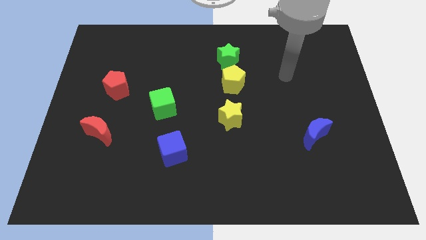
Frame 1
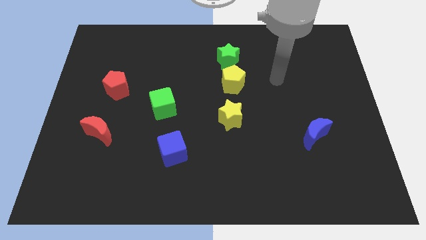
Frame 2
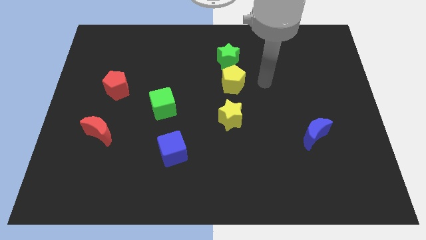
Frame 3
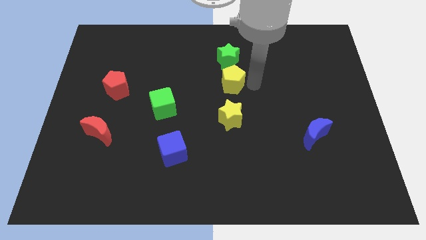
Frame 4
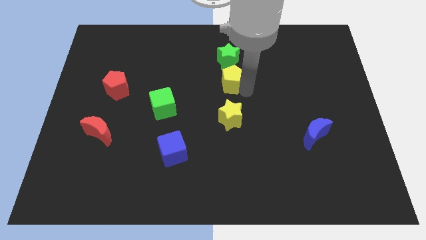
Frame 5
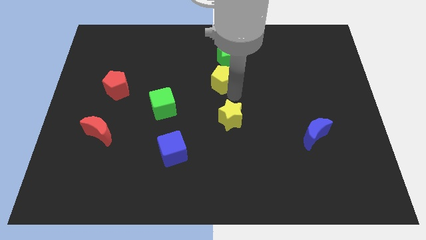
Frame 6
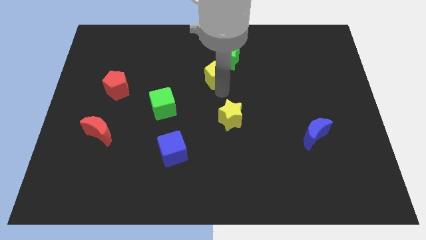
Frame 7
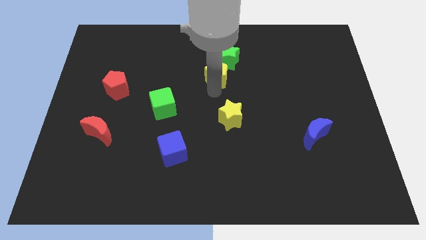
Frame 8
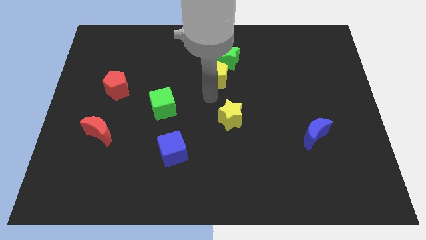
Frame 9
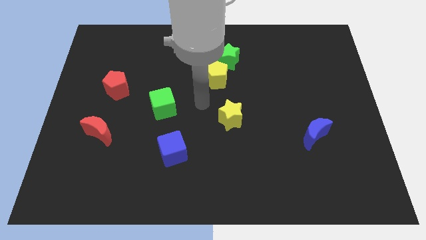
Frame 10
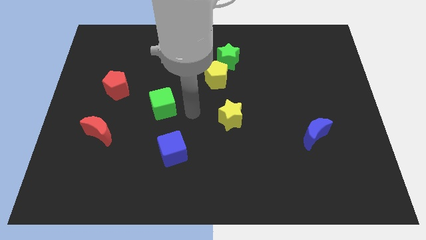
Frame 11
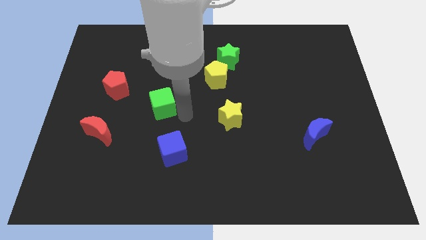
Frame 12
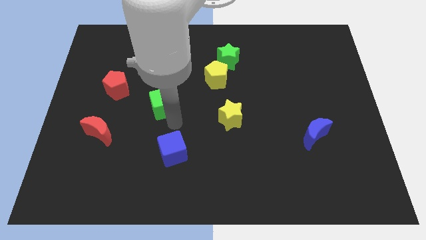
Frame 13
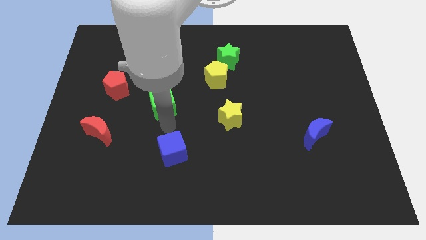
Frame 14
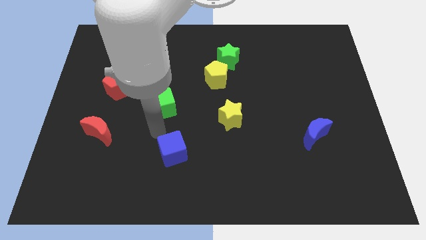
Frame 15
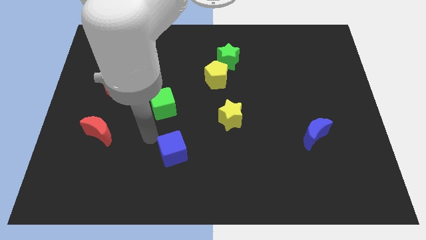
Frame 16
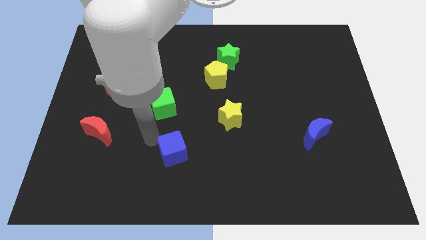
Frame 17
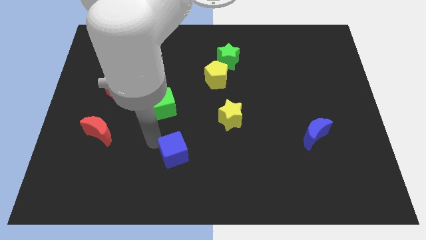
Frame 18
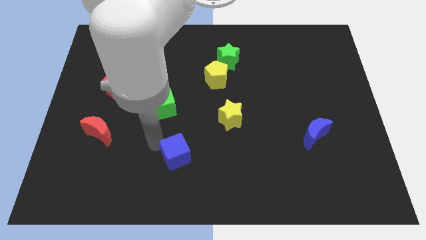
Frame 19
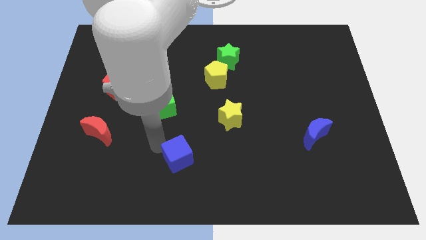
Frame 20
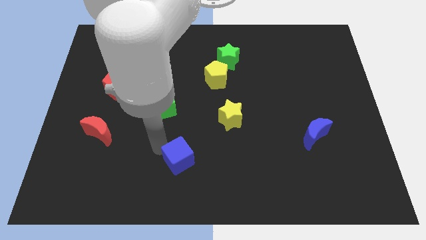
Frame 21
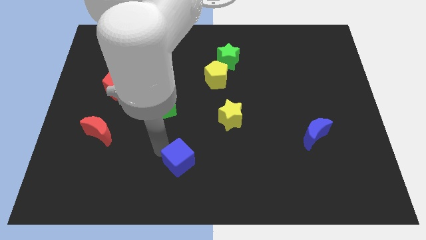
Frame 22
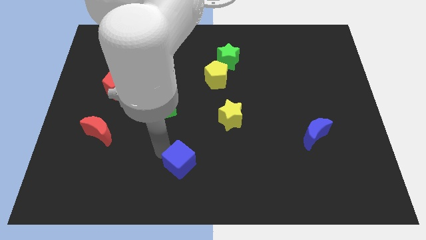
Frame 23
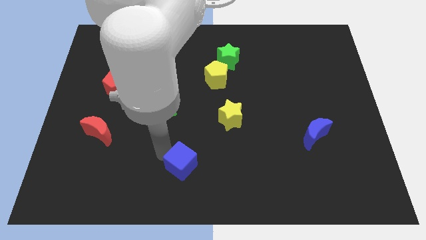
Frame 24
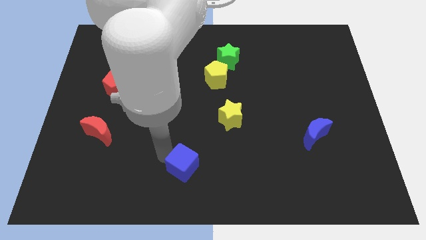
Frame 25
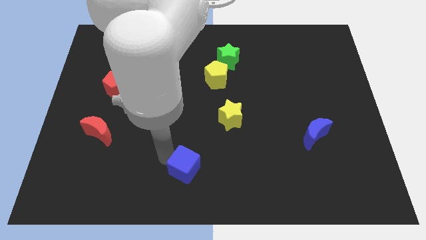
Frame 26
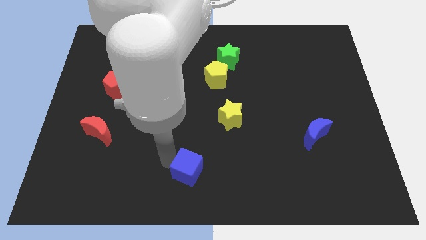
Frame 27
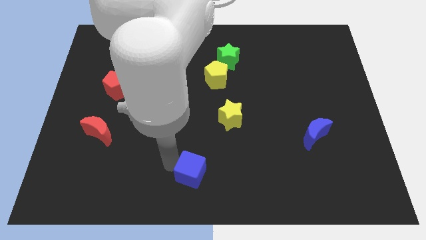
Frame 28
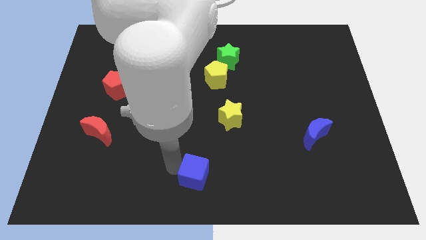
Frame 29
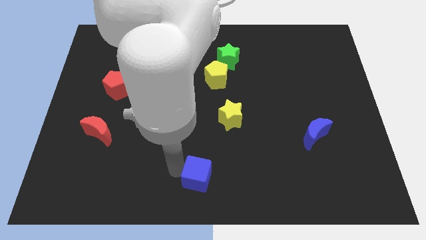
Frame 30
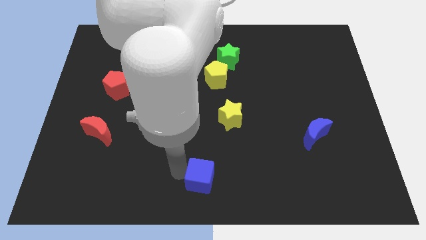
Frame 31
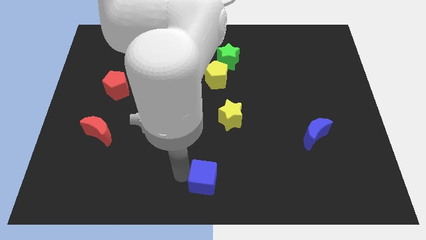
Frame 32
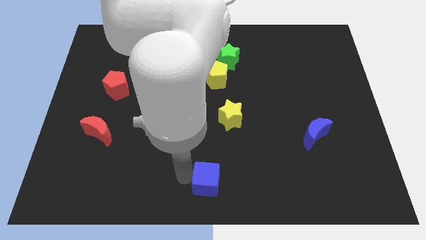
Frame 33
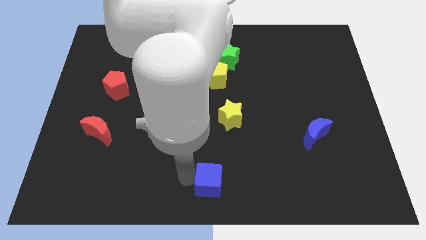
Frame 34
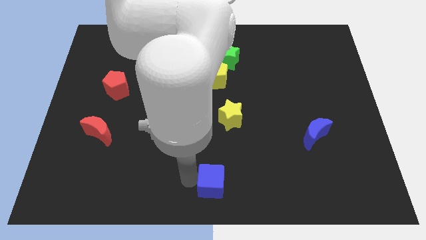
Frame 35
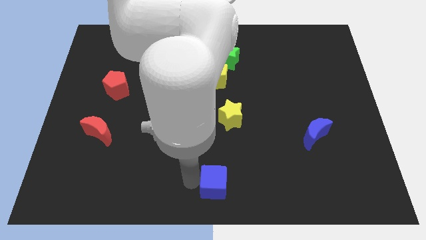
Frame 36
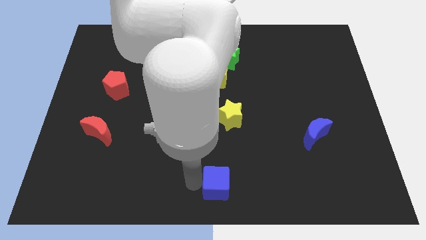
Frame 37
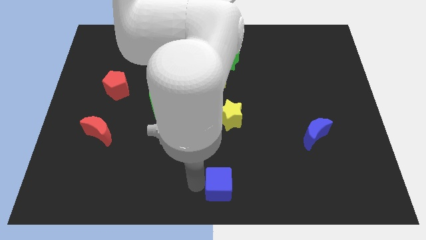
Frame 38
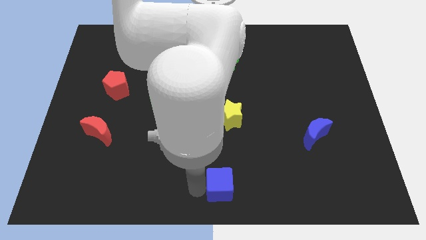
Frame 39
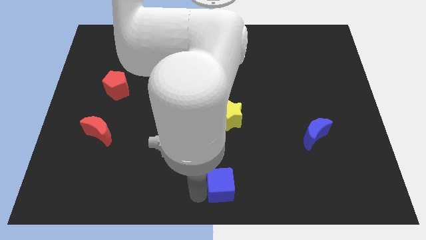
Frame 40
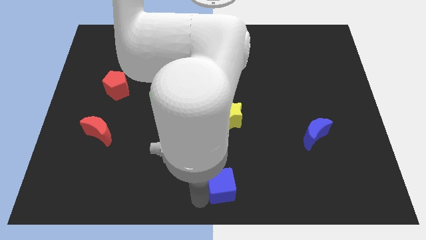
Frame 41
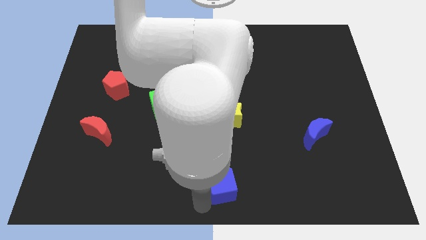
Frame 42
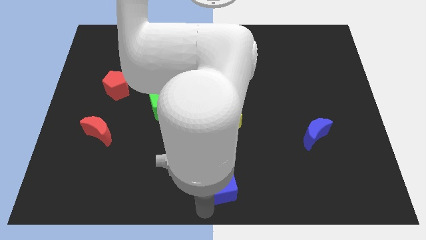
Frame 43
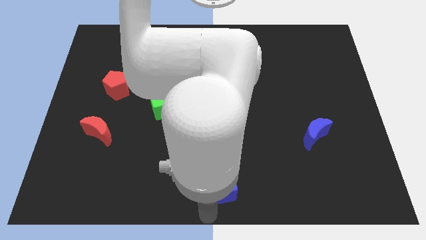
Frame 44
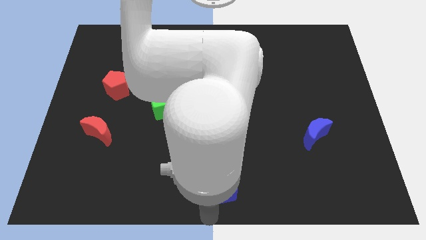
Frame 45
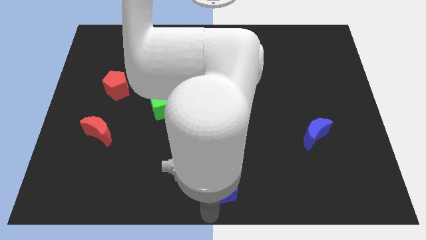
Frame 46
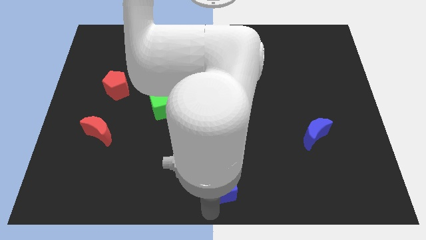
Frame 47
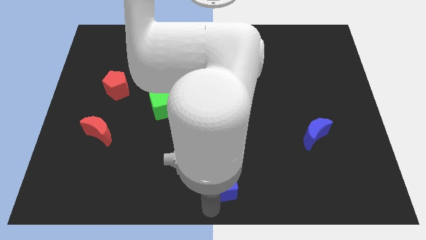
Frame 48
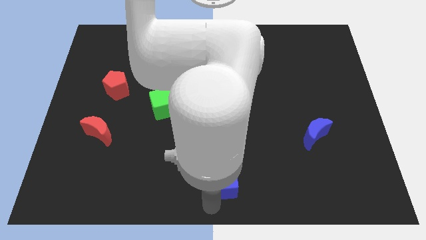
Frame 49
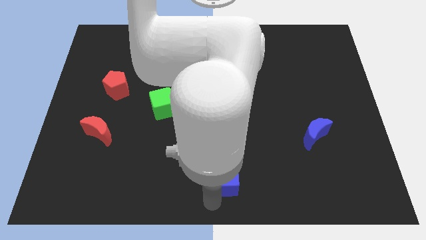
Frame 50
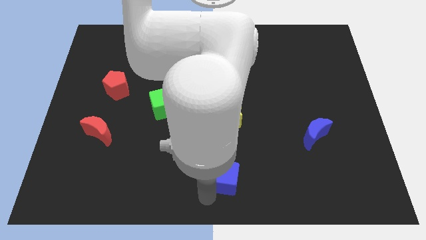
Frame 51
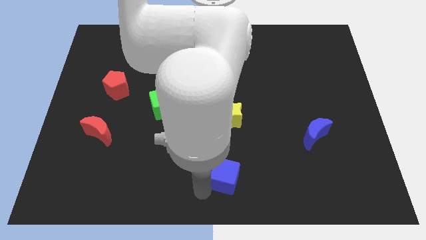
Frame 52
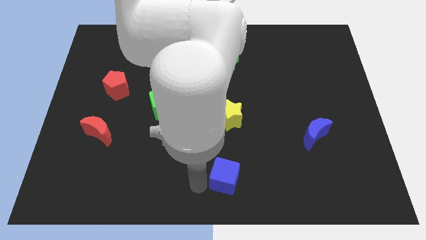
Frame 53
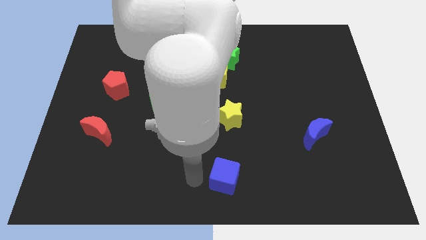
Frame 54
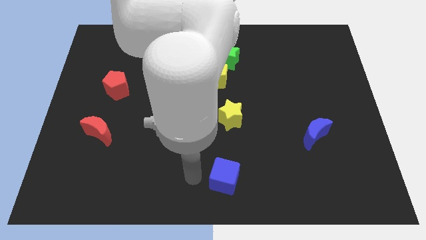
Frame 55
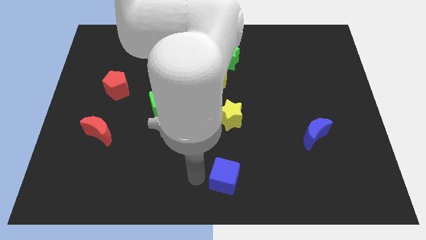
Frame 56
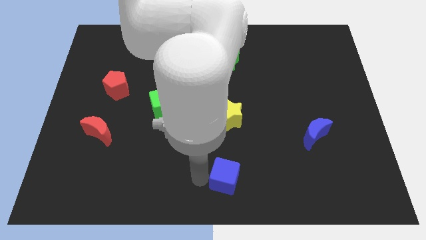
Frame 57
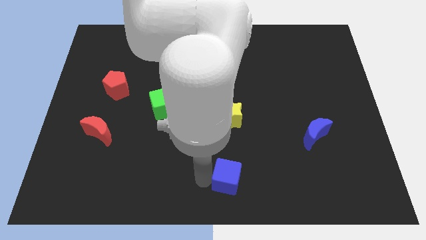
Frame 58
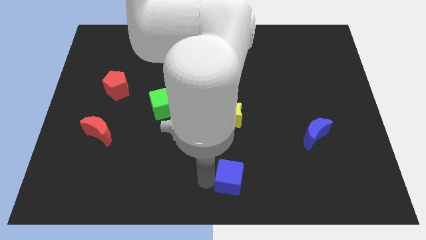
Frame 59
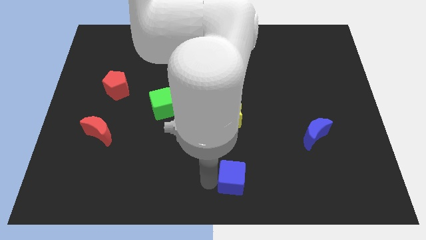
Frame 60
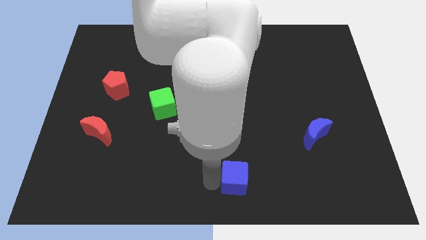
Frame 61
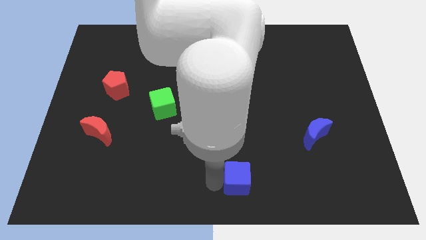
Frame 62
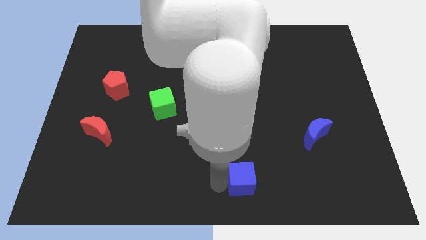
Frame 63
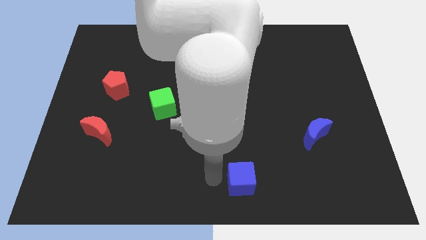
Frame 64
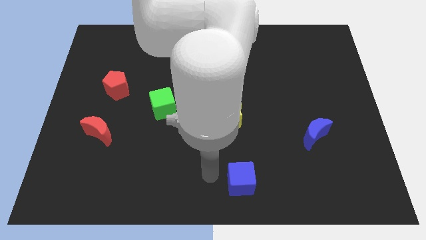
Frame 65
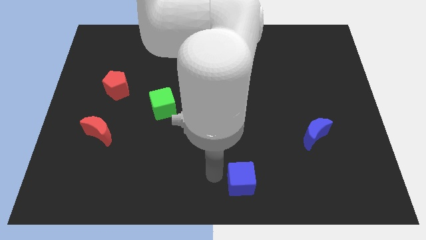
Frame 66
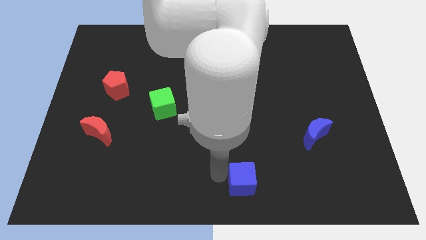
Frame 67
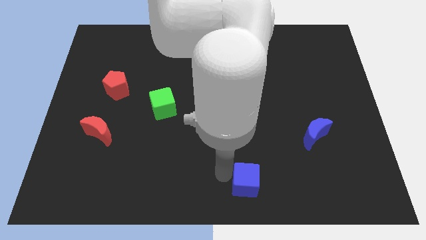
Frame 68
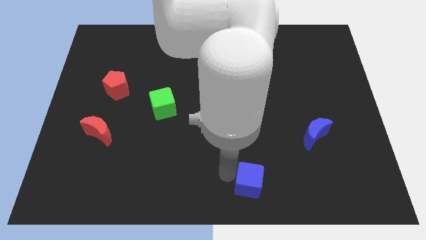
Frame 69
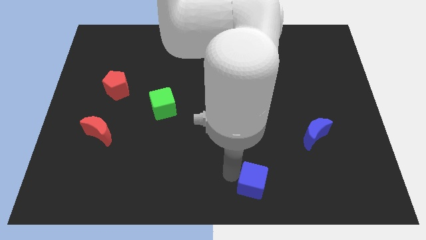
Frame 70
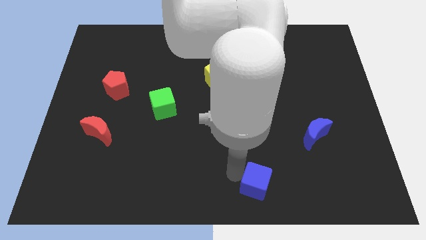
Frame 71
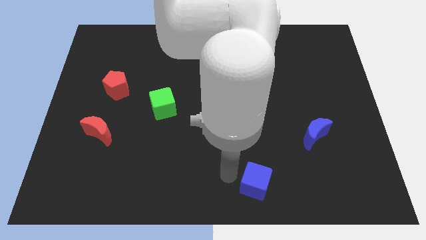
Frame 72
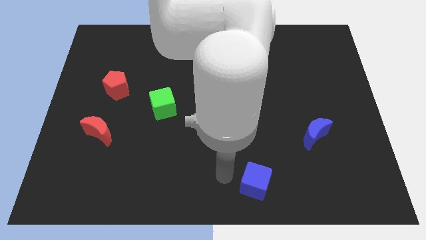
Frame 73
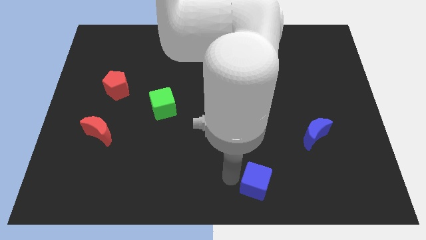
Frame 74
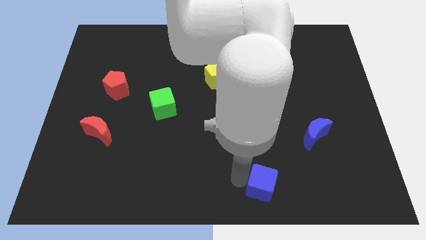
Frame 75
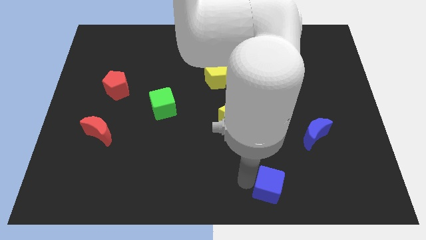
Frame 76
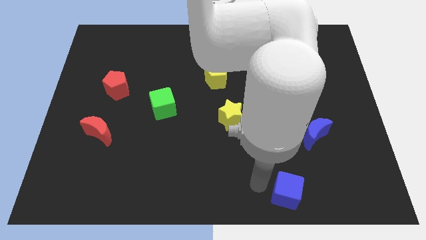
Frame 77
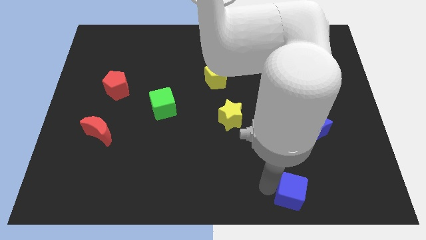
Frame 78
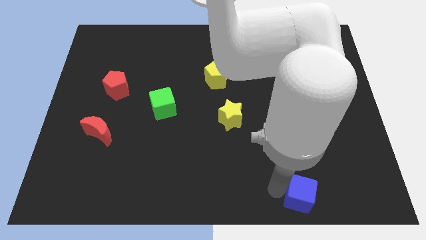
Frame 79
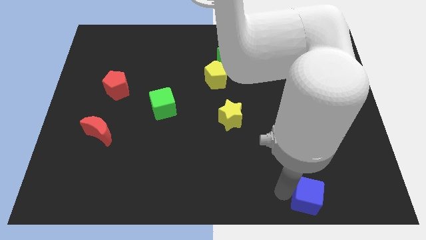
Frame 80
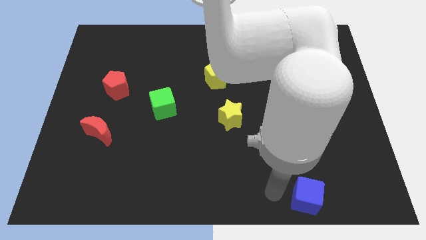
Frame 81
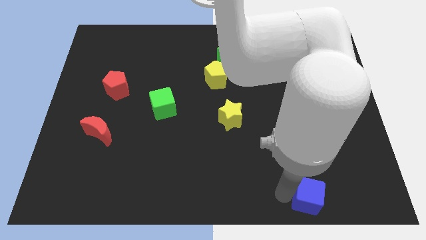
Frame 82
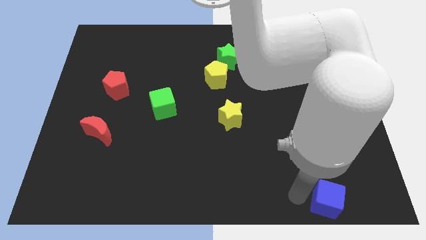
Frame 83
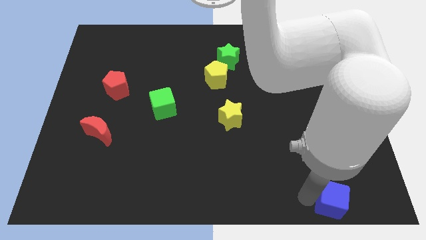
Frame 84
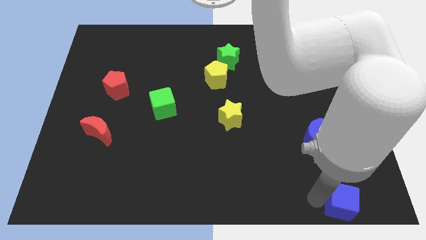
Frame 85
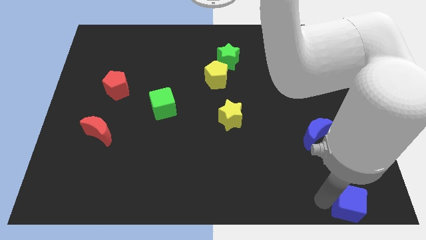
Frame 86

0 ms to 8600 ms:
put the blue cube to the bottom right
